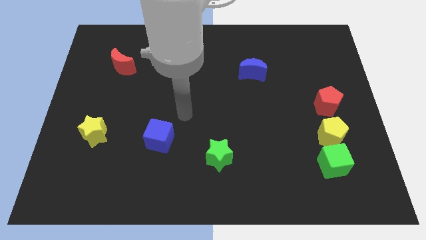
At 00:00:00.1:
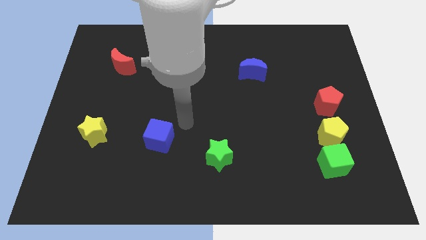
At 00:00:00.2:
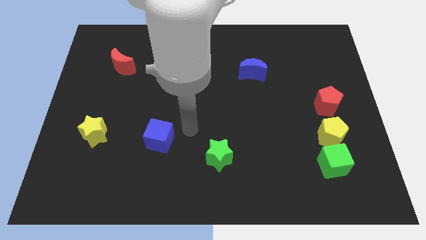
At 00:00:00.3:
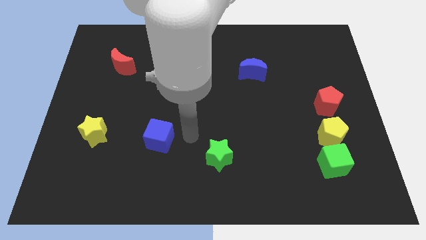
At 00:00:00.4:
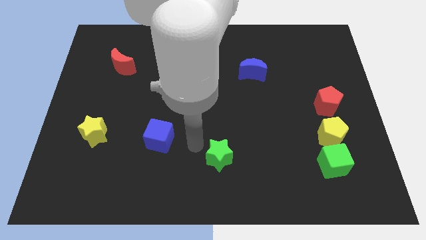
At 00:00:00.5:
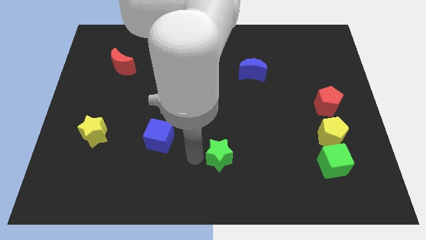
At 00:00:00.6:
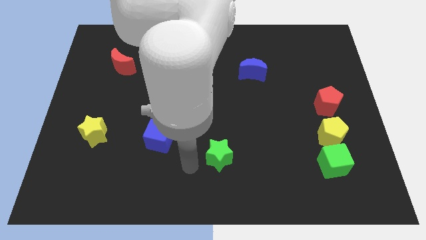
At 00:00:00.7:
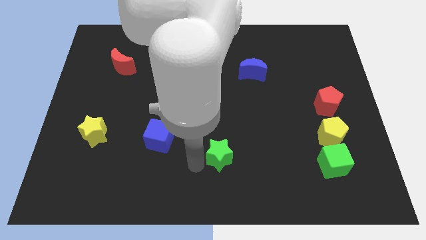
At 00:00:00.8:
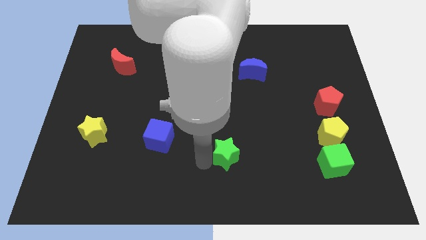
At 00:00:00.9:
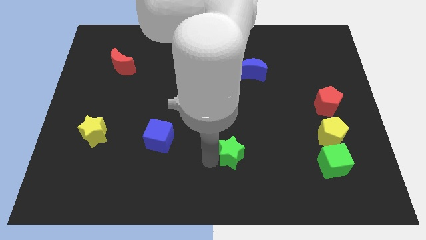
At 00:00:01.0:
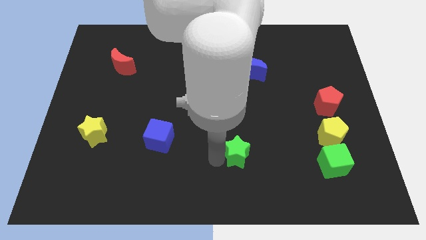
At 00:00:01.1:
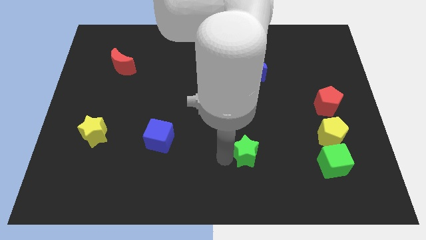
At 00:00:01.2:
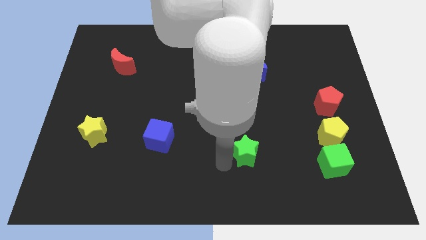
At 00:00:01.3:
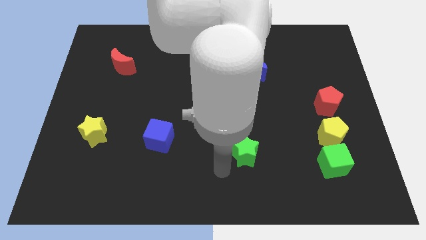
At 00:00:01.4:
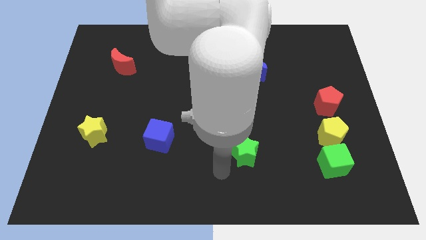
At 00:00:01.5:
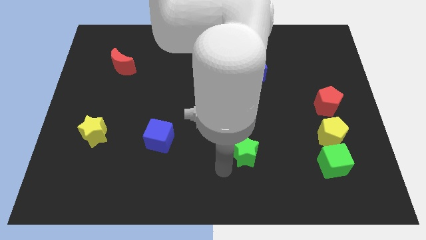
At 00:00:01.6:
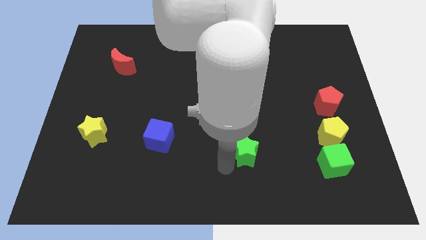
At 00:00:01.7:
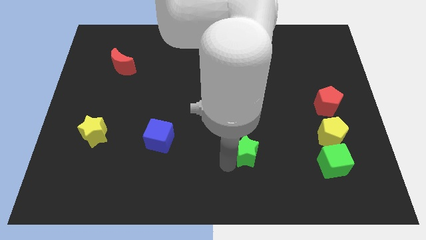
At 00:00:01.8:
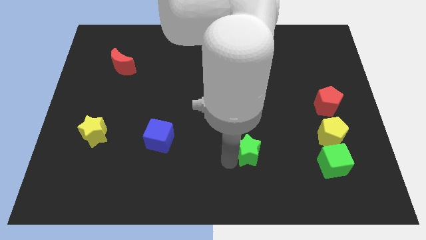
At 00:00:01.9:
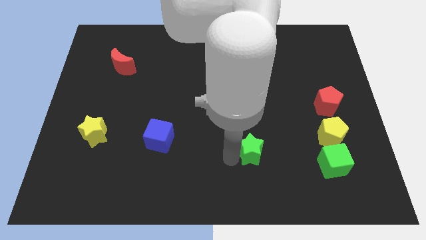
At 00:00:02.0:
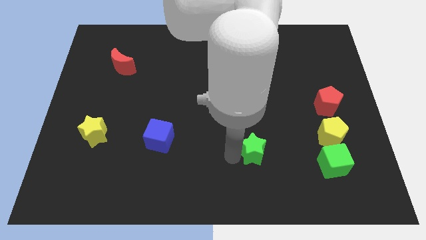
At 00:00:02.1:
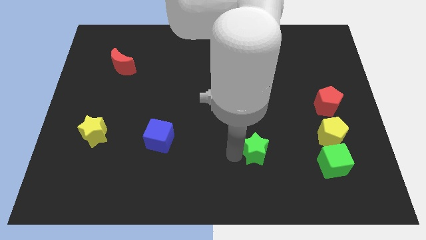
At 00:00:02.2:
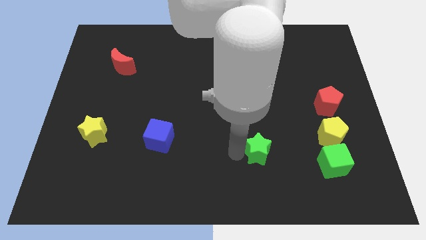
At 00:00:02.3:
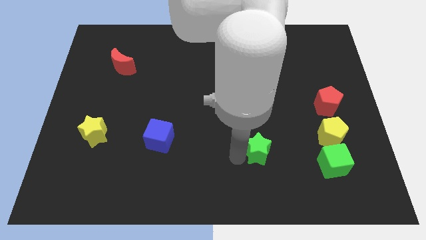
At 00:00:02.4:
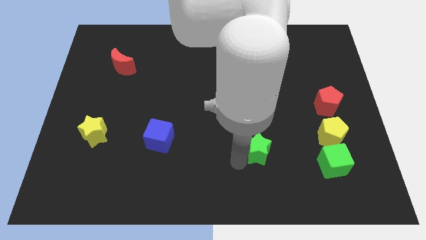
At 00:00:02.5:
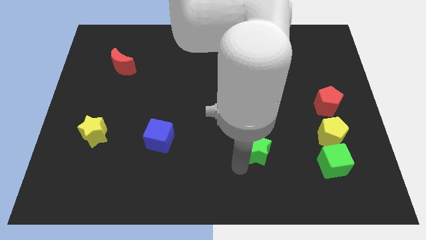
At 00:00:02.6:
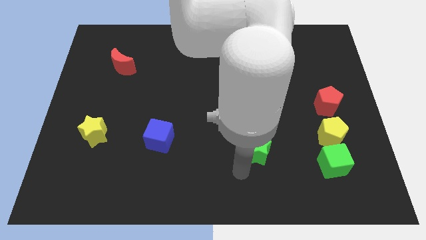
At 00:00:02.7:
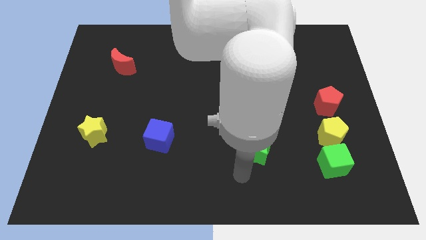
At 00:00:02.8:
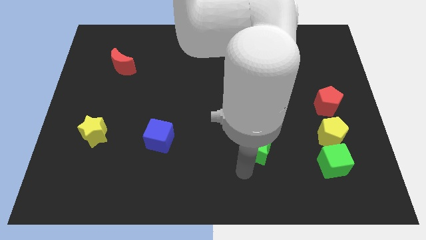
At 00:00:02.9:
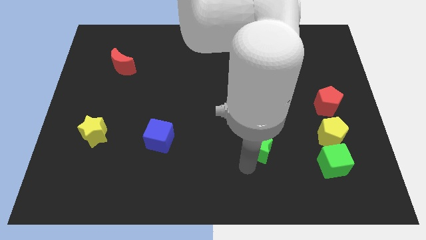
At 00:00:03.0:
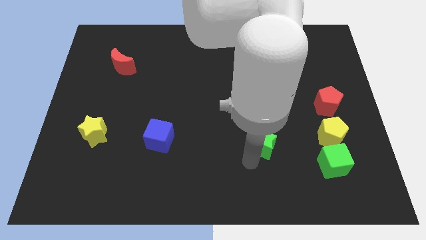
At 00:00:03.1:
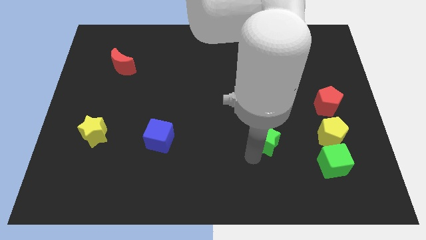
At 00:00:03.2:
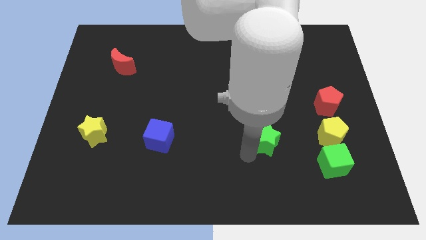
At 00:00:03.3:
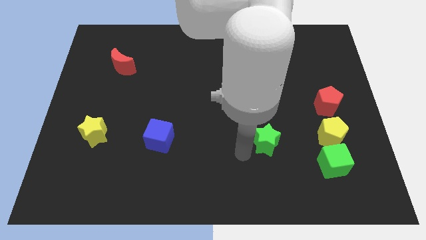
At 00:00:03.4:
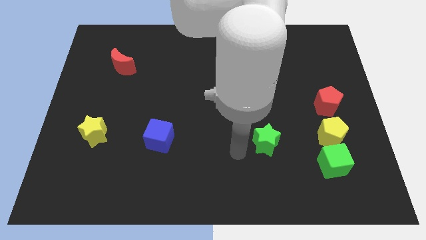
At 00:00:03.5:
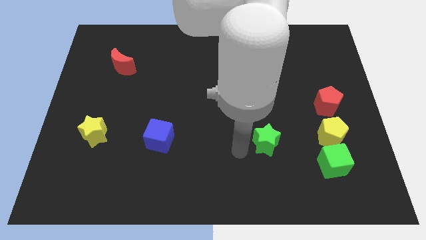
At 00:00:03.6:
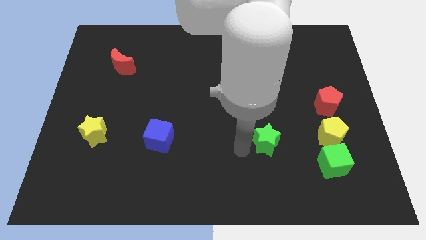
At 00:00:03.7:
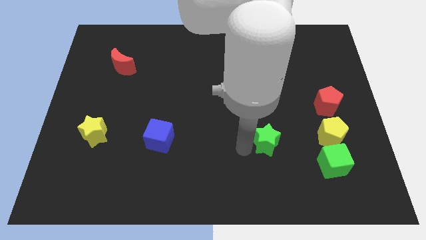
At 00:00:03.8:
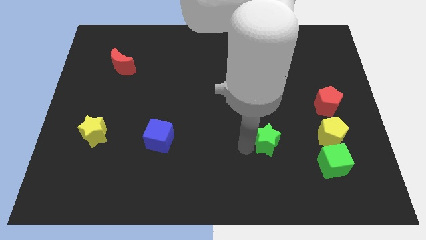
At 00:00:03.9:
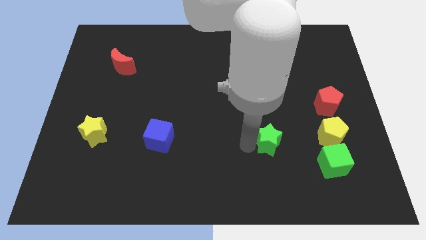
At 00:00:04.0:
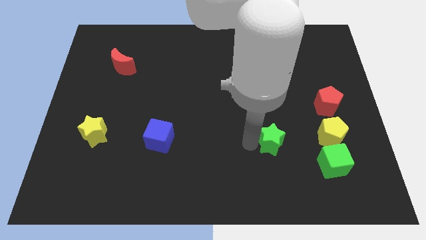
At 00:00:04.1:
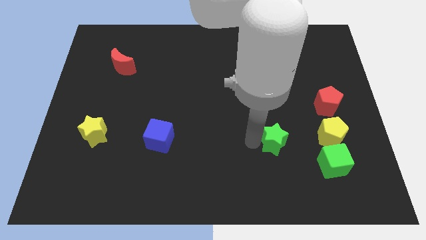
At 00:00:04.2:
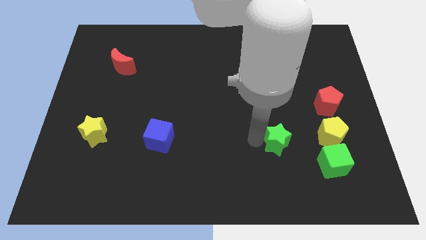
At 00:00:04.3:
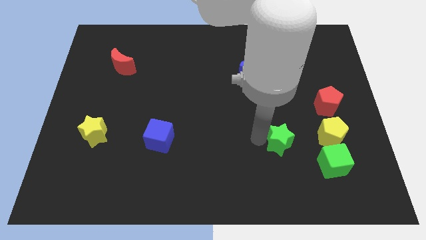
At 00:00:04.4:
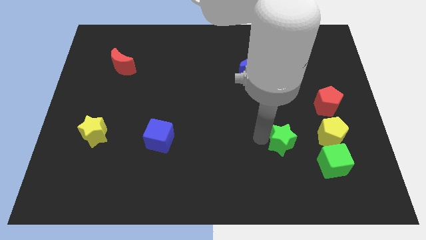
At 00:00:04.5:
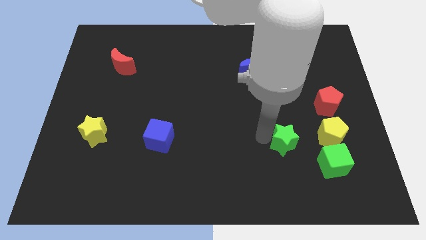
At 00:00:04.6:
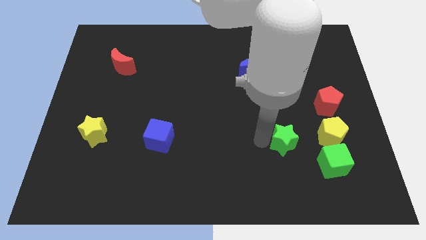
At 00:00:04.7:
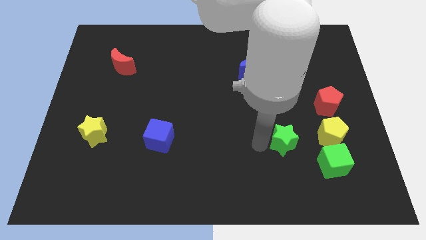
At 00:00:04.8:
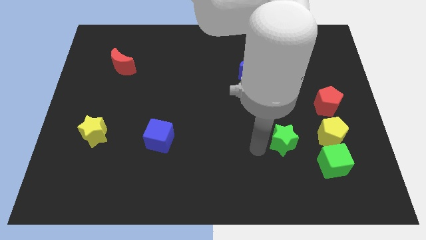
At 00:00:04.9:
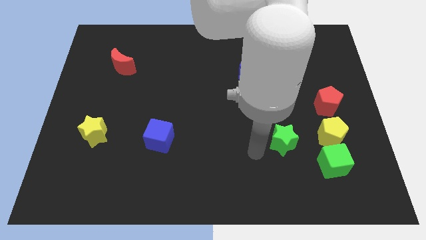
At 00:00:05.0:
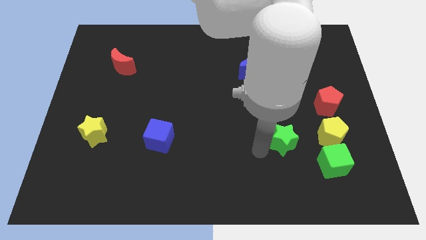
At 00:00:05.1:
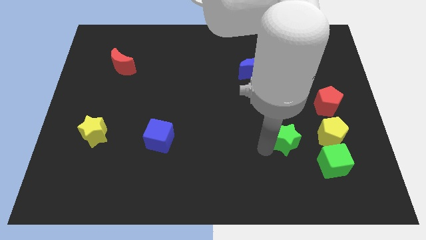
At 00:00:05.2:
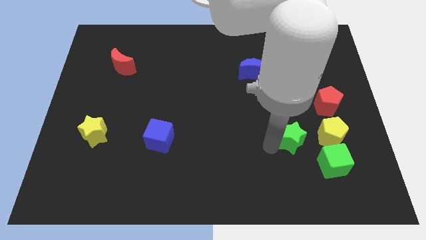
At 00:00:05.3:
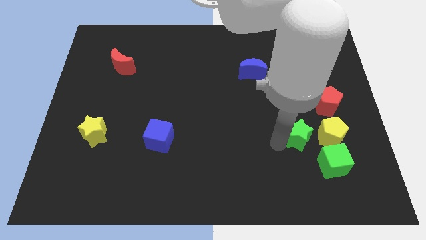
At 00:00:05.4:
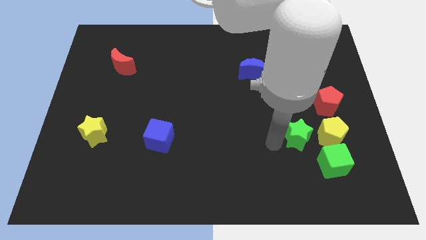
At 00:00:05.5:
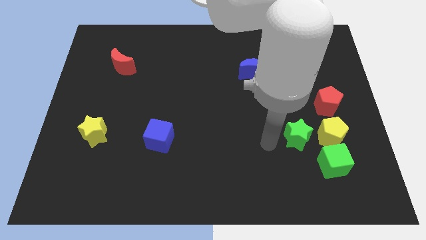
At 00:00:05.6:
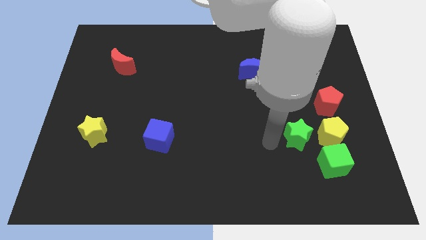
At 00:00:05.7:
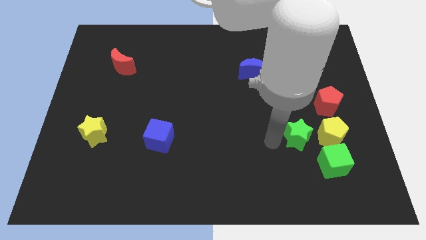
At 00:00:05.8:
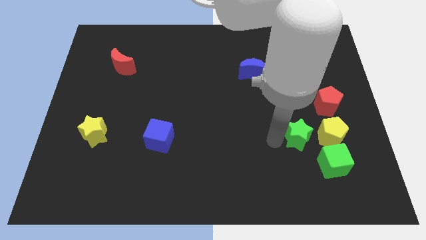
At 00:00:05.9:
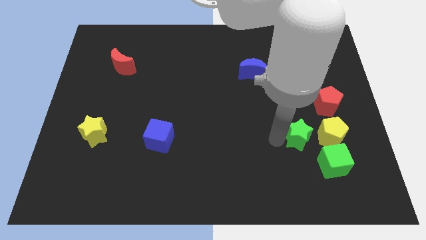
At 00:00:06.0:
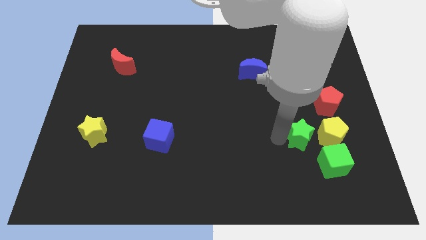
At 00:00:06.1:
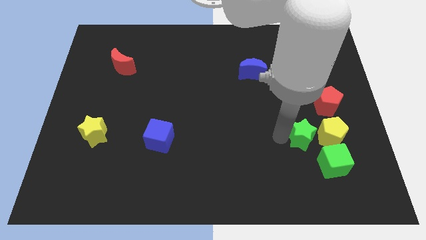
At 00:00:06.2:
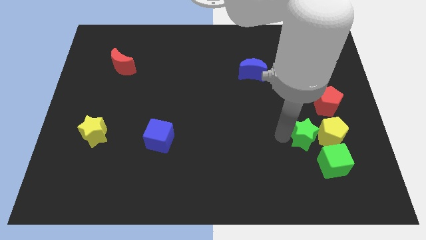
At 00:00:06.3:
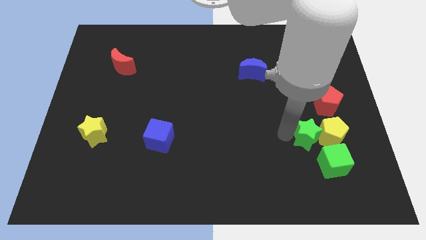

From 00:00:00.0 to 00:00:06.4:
push the green star towards the yellow pentagon

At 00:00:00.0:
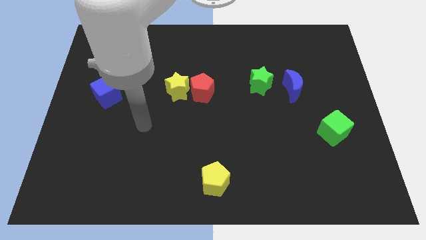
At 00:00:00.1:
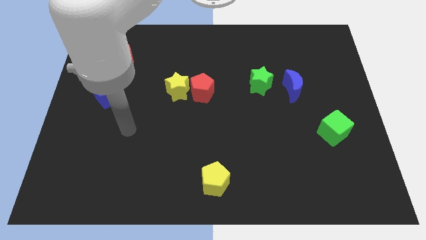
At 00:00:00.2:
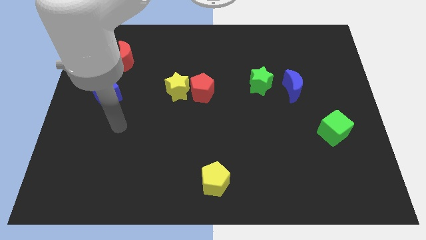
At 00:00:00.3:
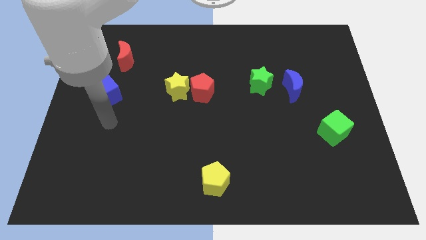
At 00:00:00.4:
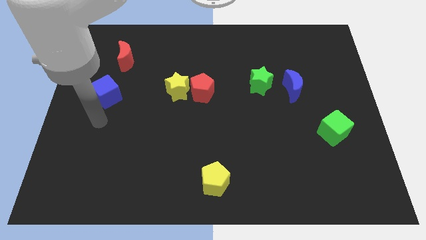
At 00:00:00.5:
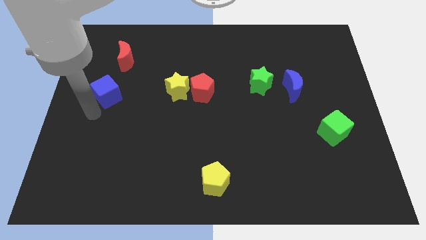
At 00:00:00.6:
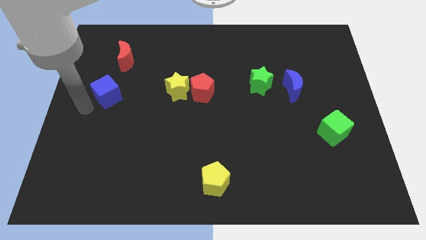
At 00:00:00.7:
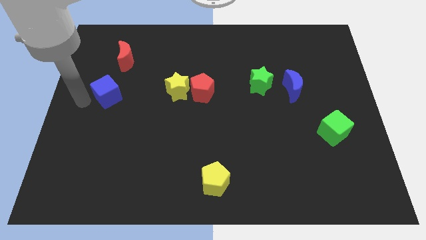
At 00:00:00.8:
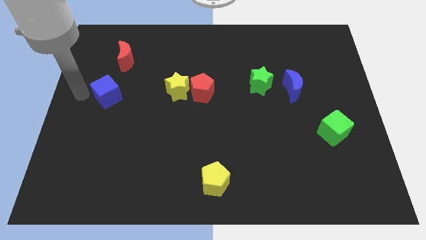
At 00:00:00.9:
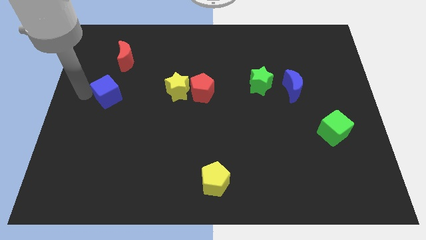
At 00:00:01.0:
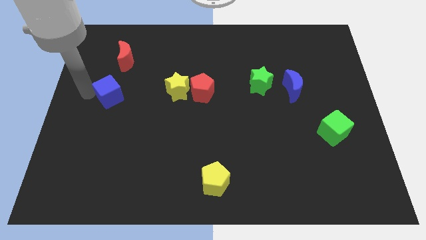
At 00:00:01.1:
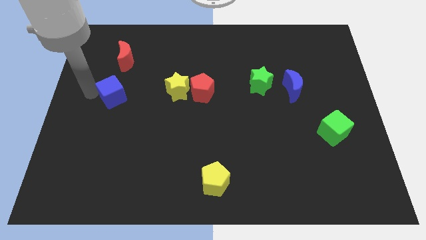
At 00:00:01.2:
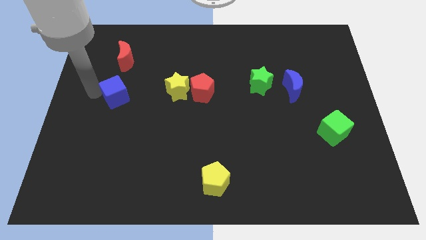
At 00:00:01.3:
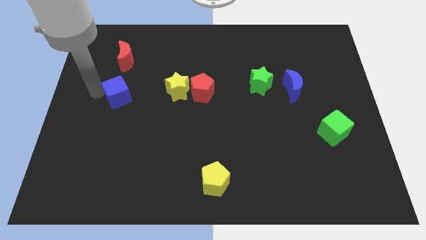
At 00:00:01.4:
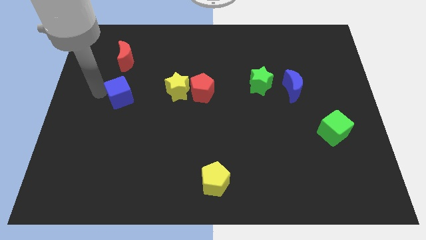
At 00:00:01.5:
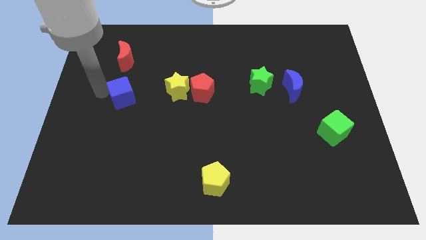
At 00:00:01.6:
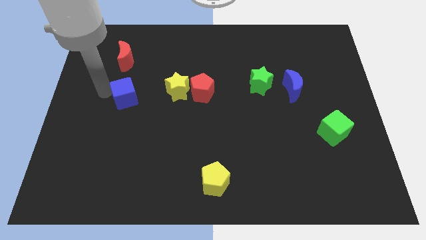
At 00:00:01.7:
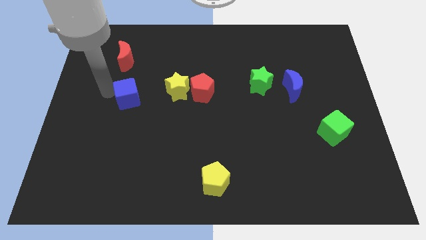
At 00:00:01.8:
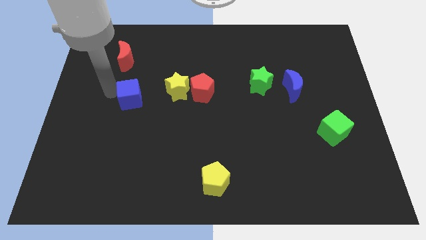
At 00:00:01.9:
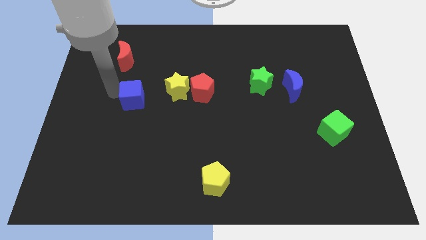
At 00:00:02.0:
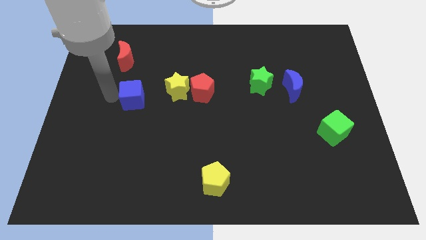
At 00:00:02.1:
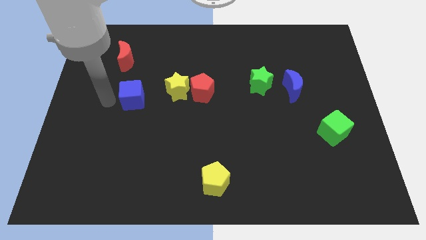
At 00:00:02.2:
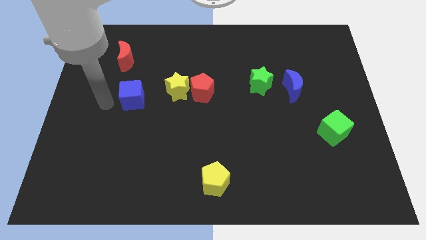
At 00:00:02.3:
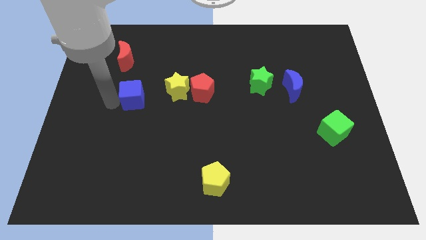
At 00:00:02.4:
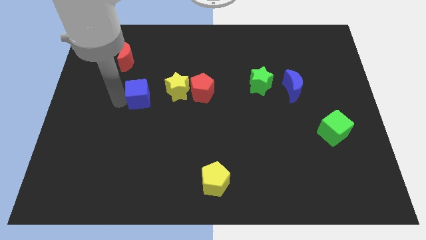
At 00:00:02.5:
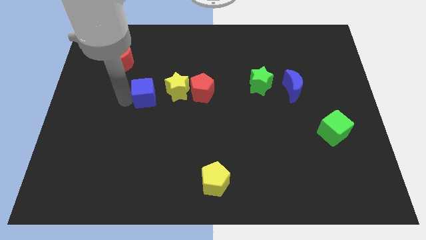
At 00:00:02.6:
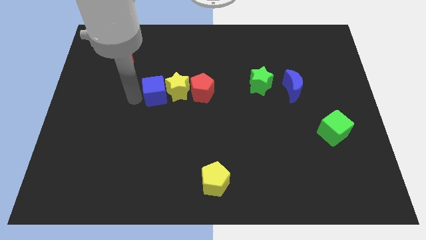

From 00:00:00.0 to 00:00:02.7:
put the blue cube to the yellow star
